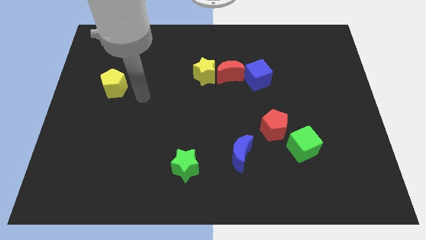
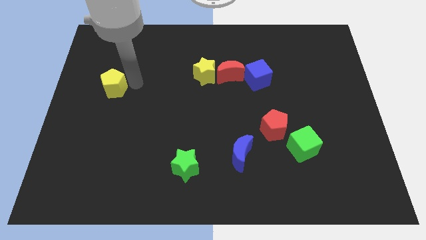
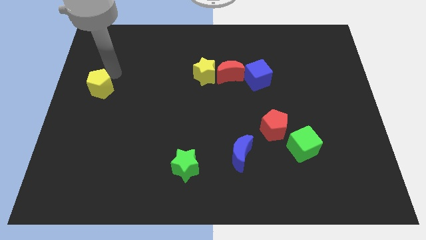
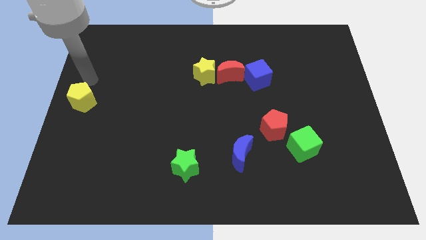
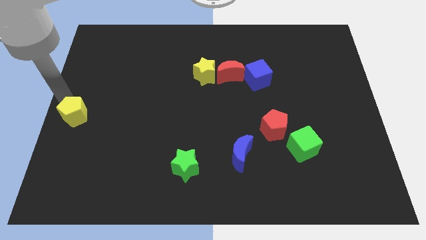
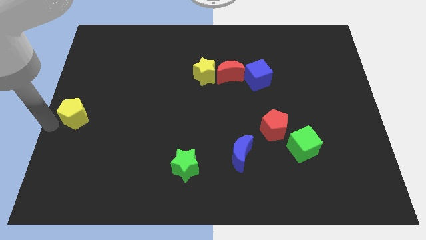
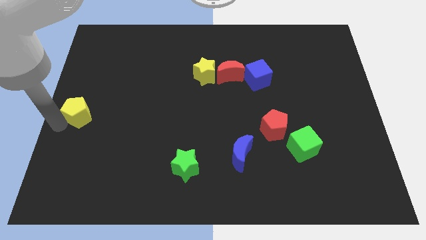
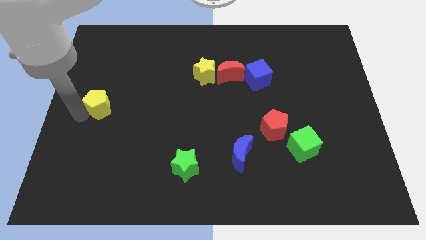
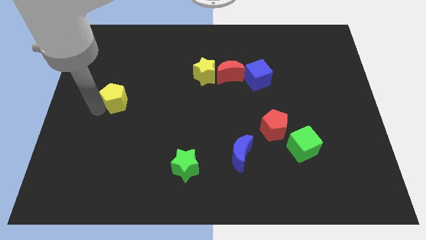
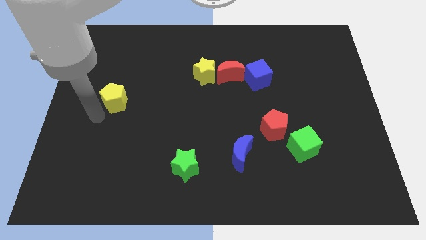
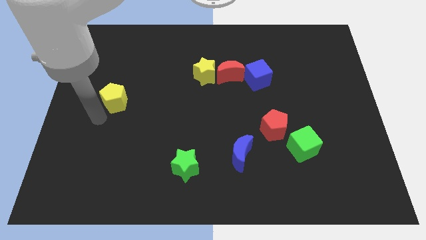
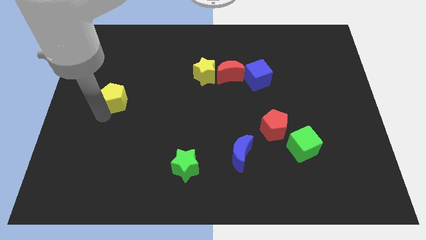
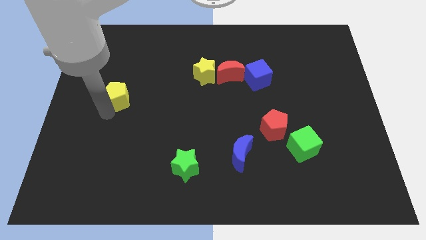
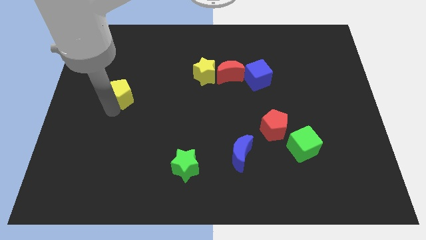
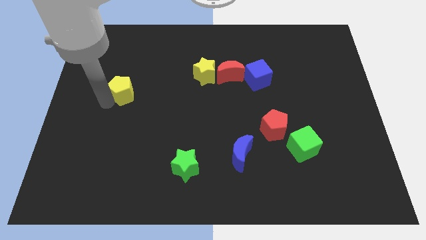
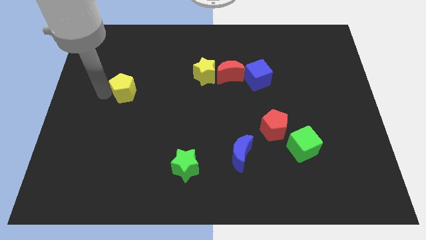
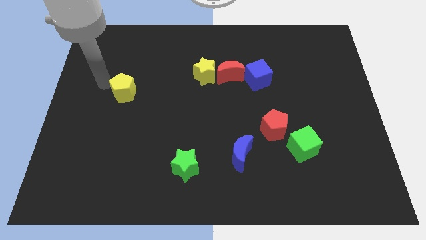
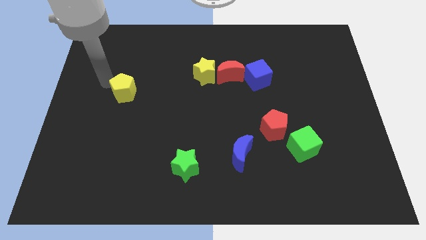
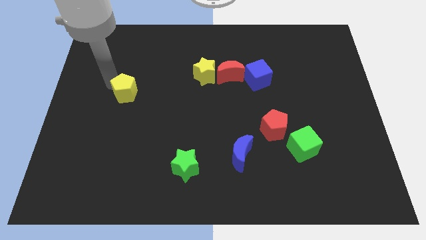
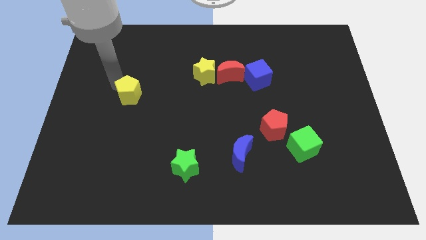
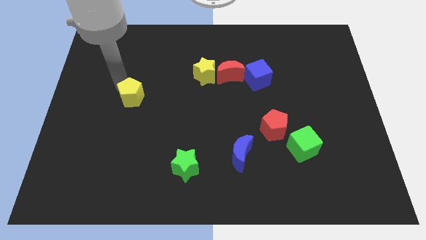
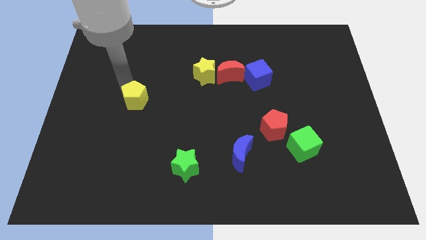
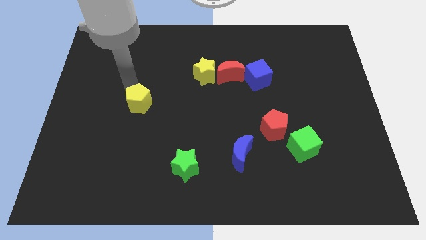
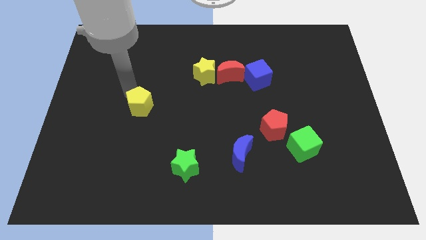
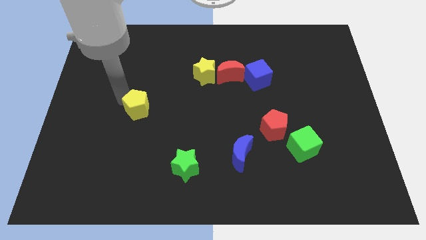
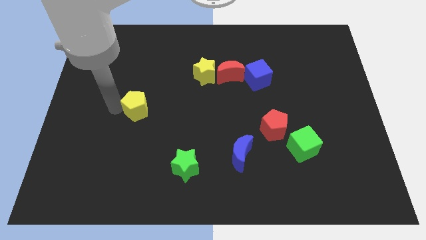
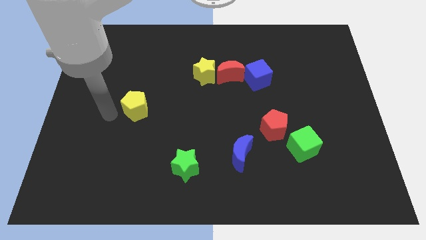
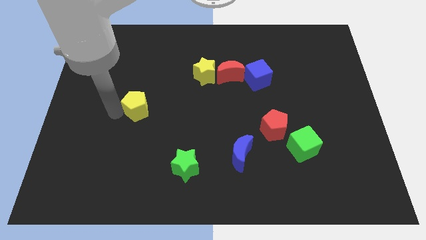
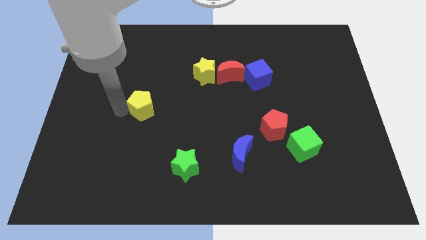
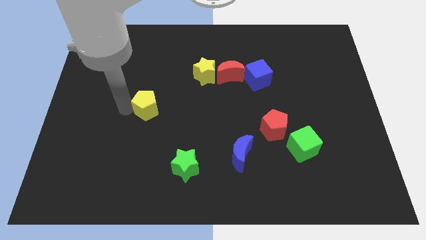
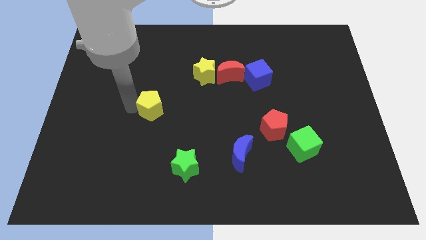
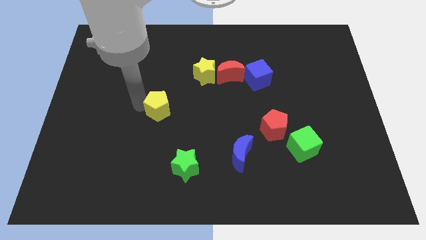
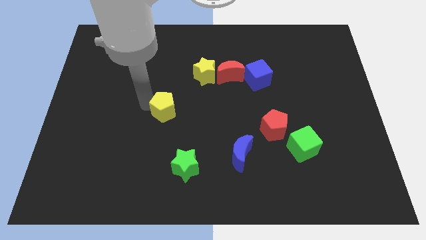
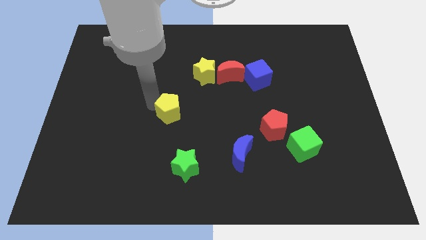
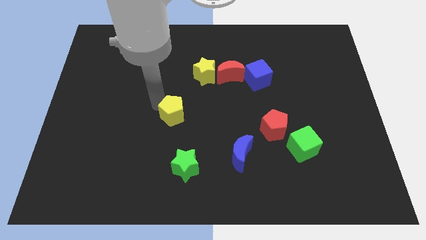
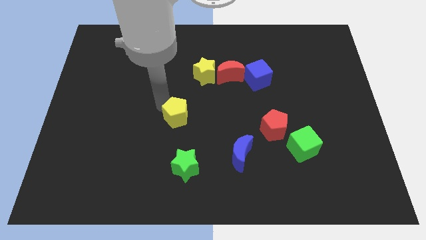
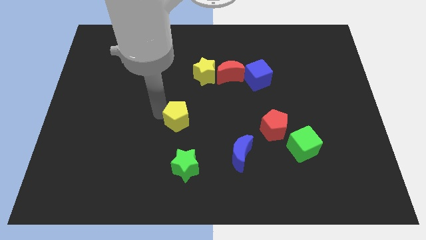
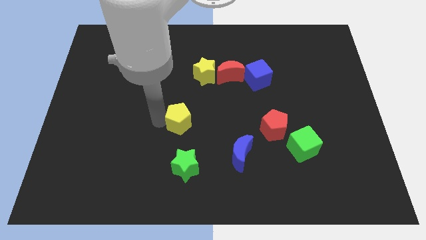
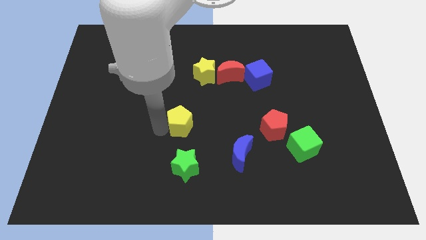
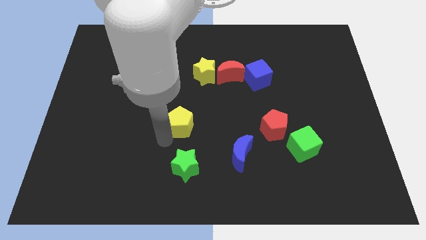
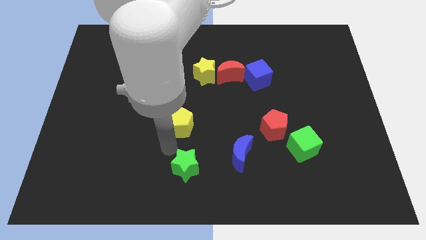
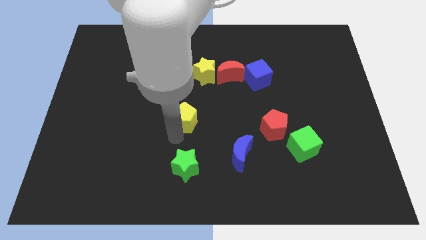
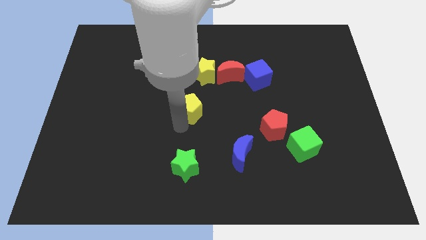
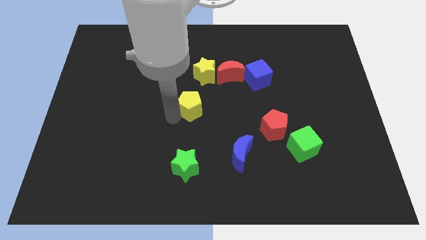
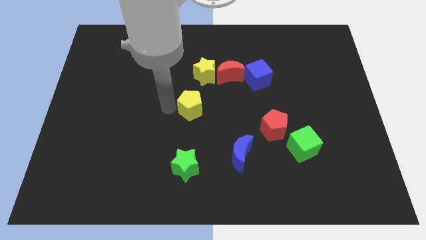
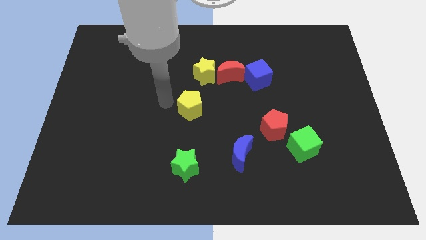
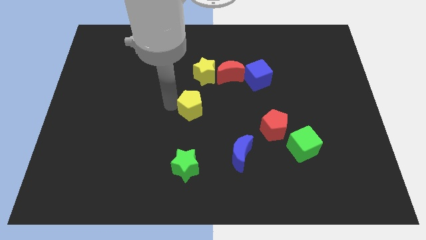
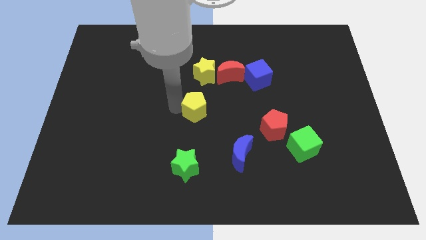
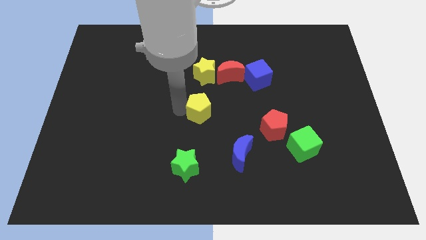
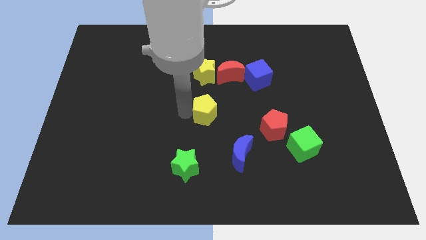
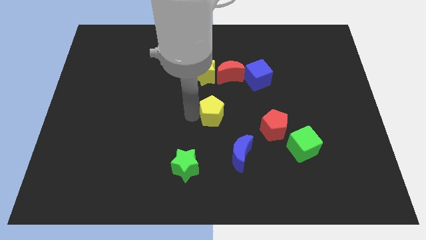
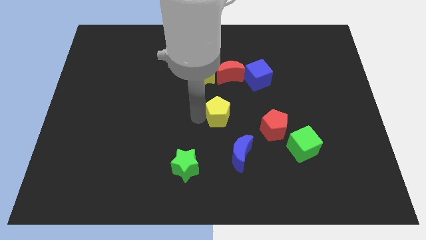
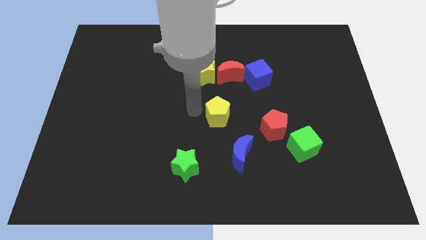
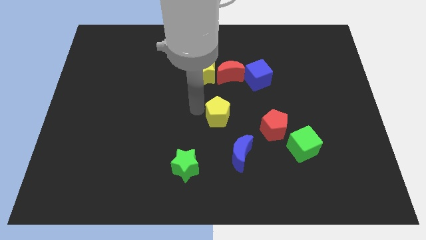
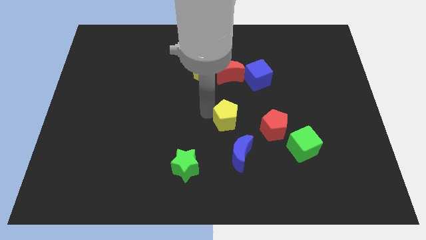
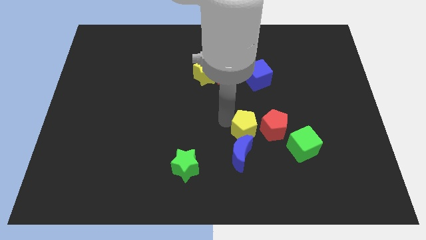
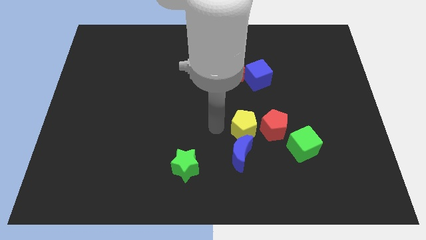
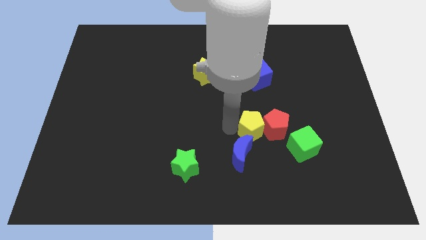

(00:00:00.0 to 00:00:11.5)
slide the yellow pentagon towards the red pentagon

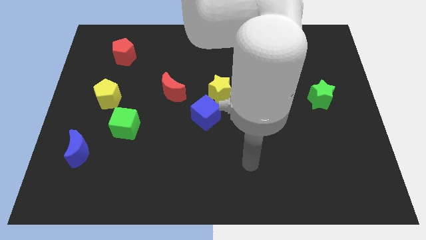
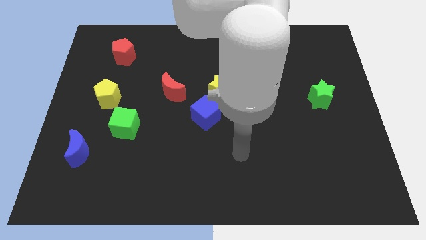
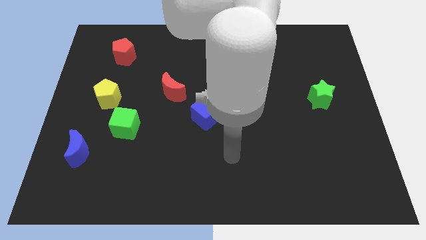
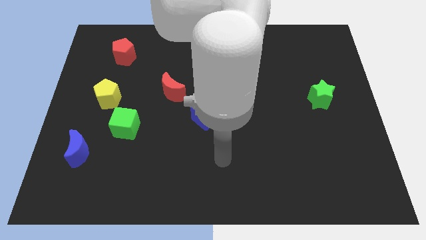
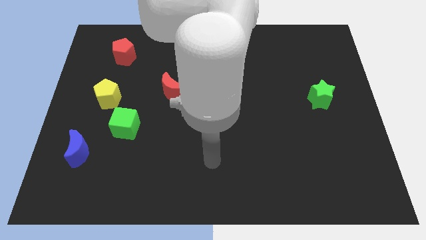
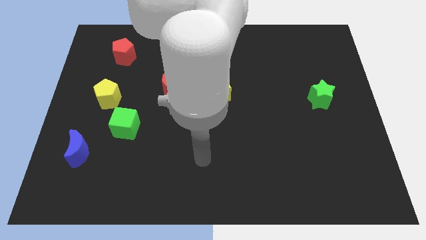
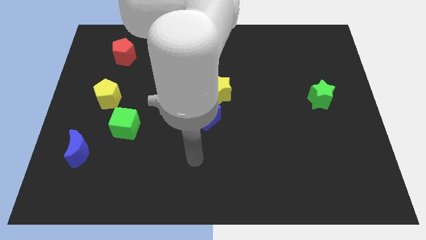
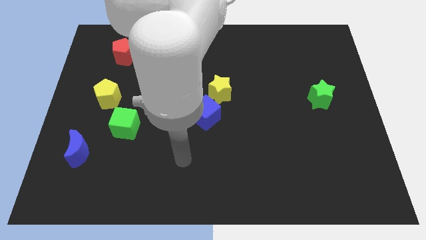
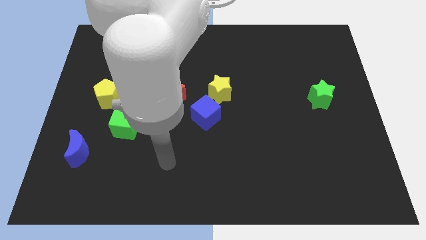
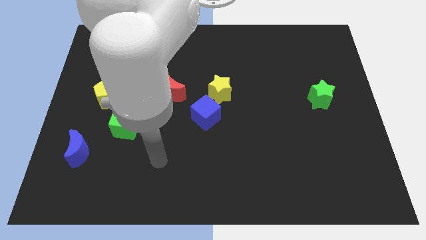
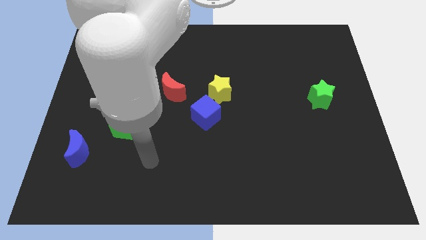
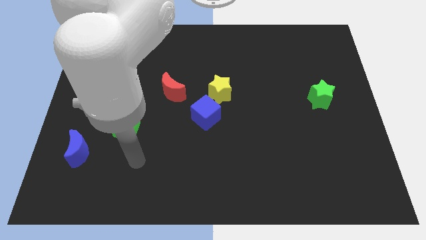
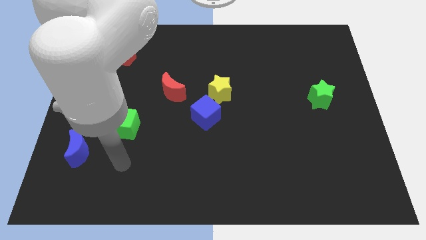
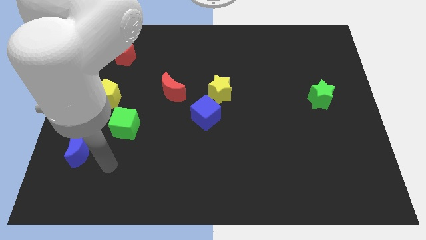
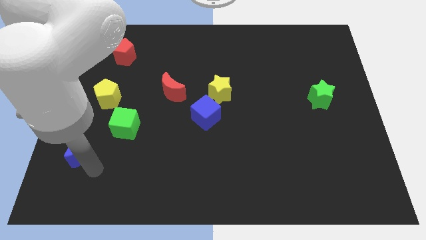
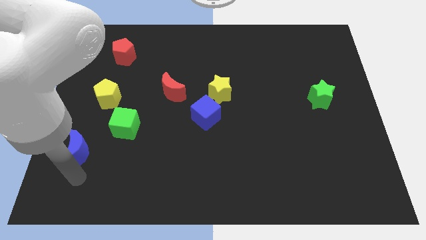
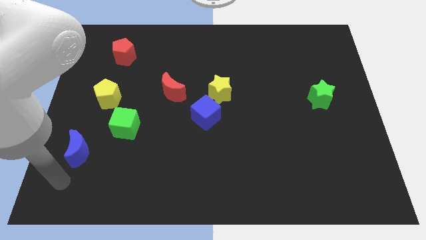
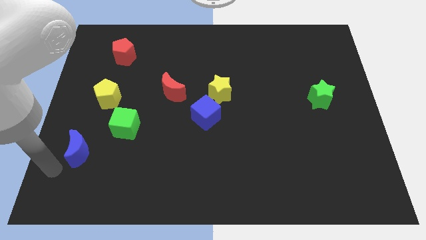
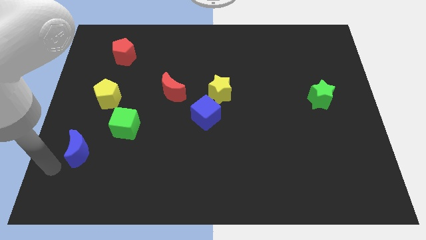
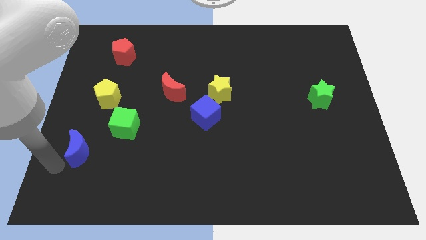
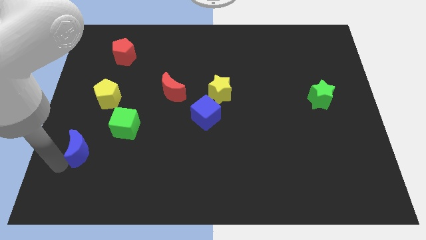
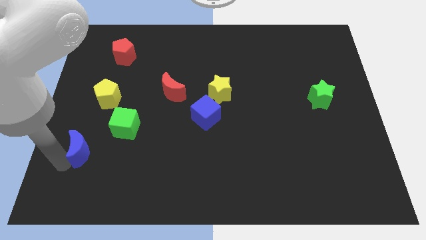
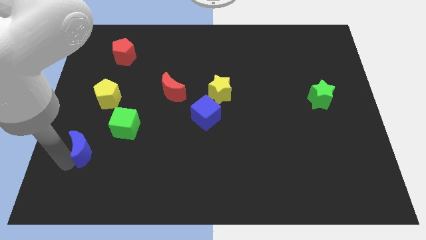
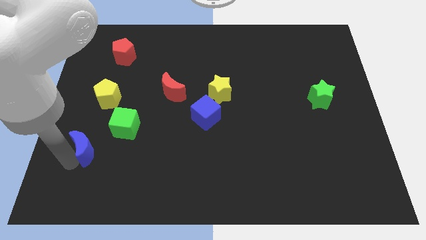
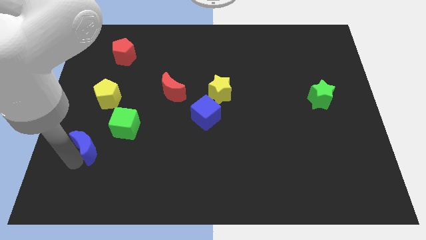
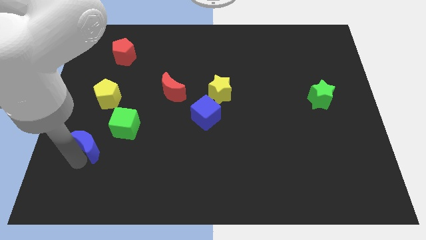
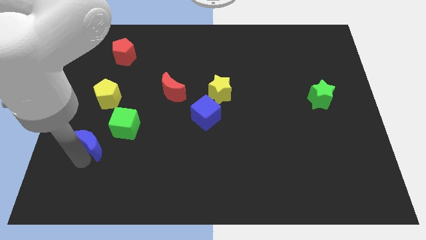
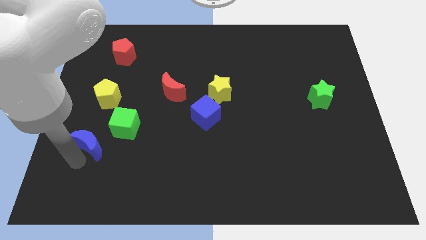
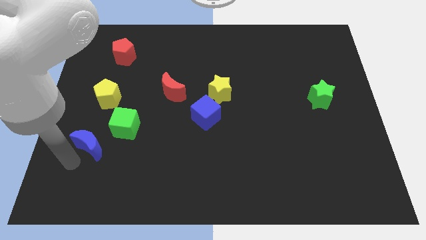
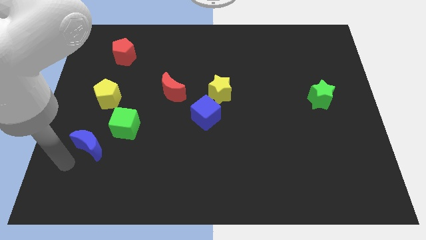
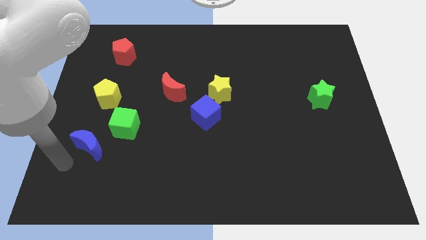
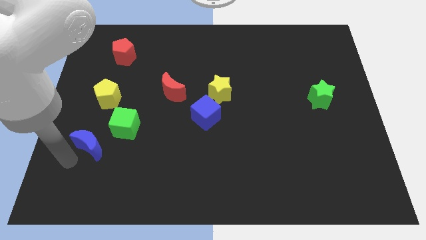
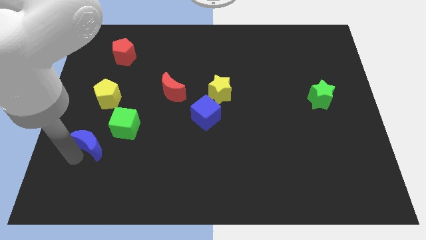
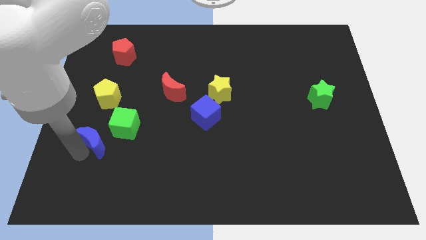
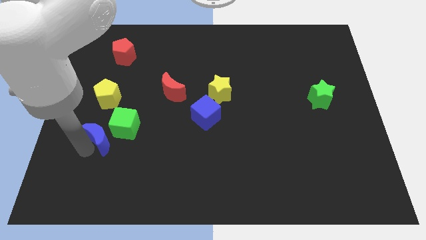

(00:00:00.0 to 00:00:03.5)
move the blue moon next to the green cube
